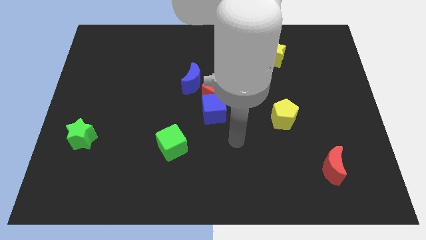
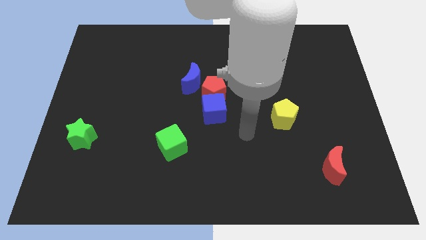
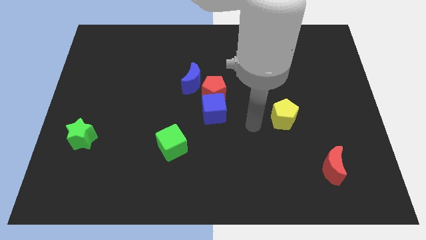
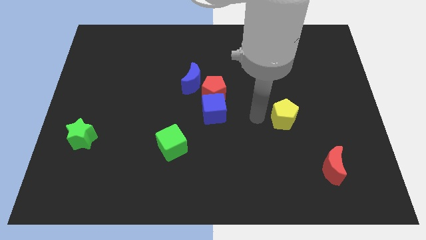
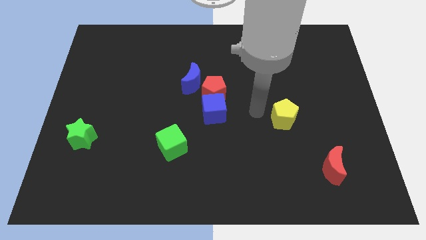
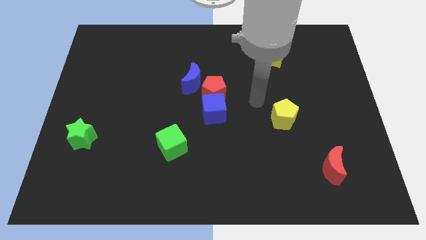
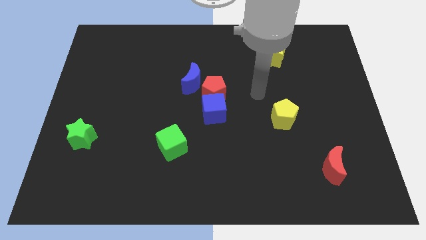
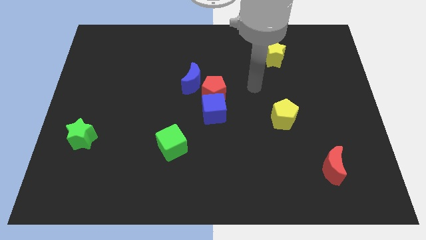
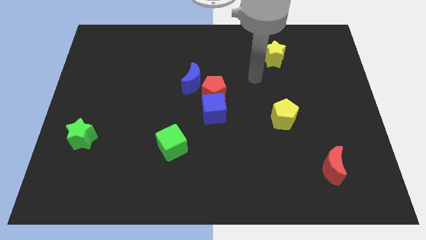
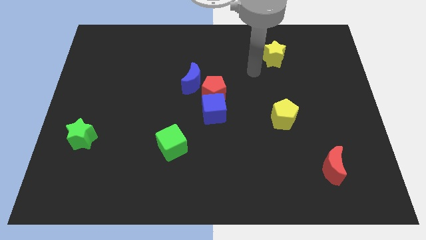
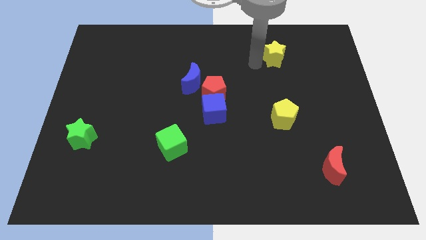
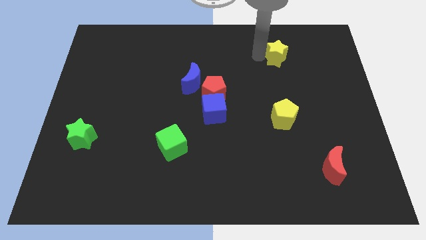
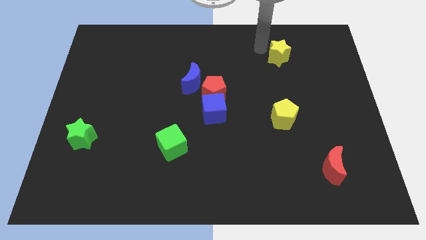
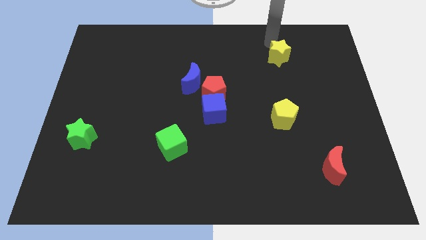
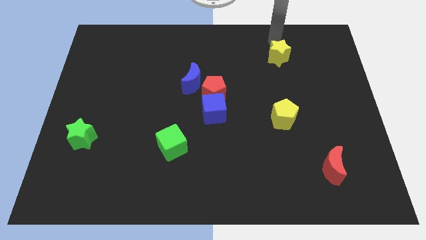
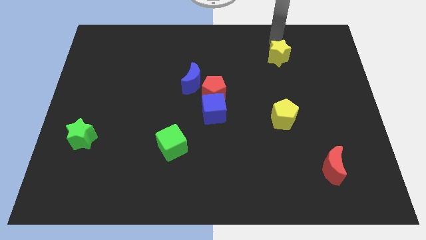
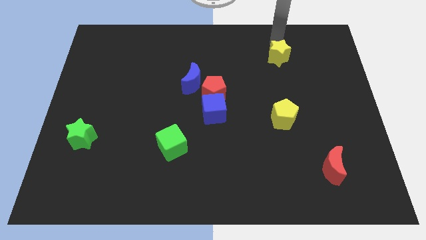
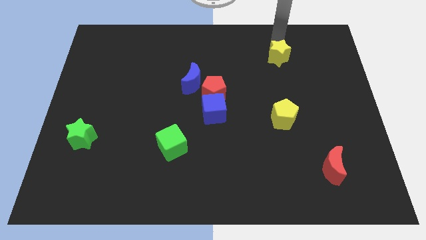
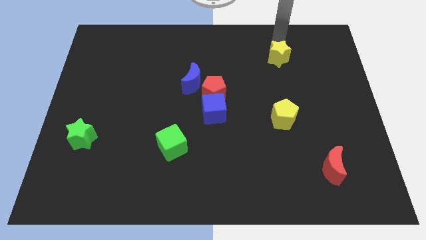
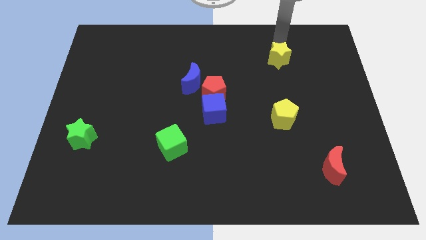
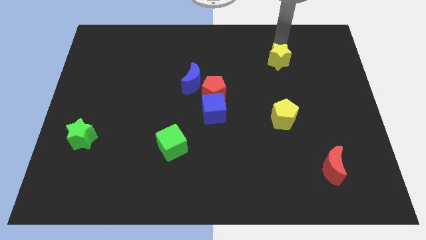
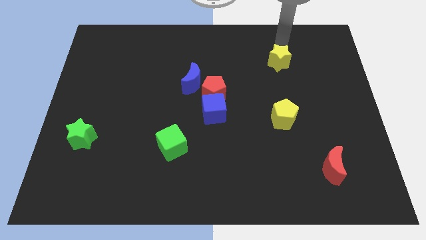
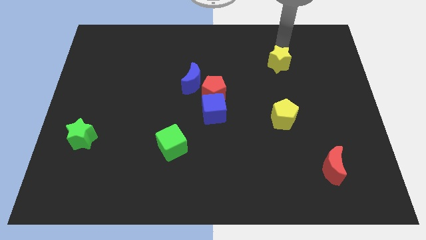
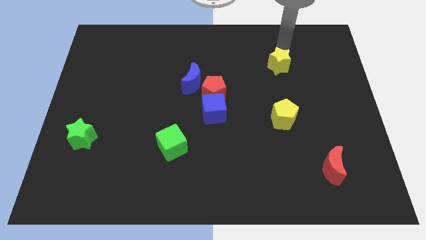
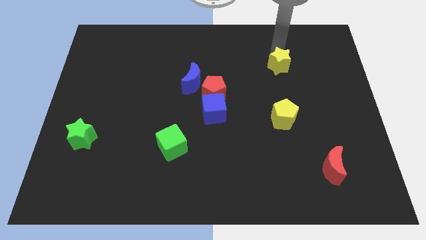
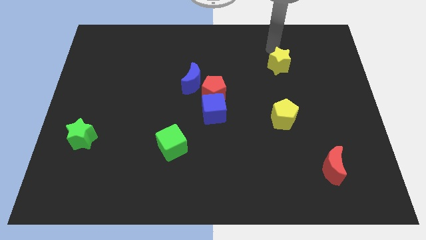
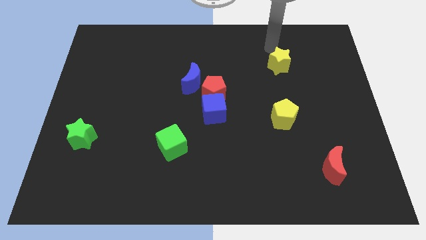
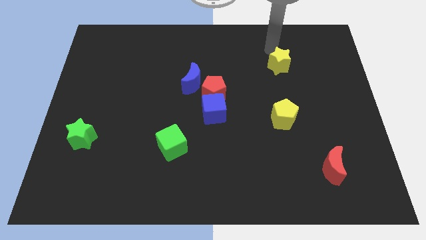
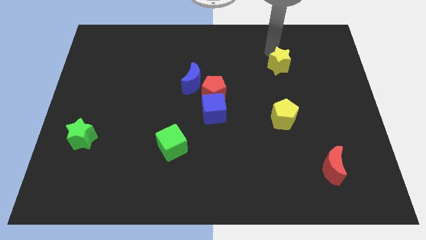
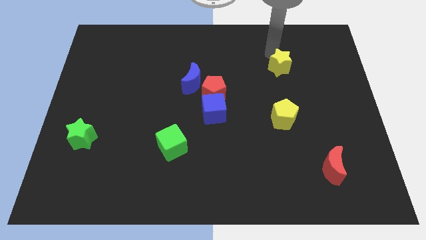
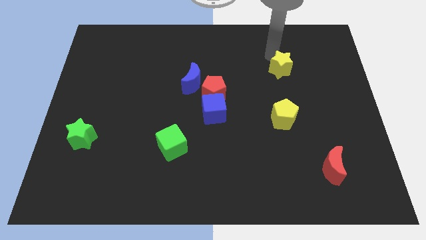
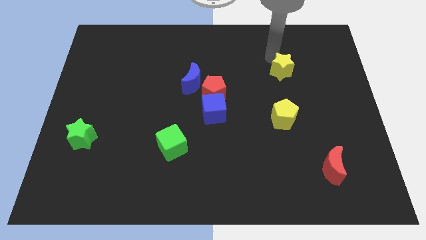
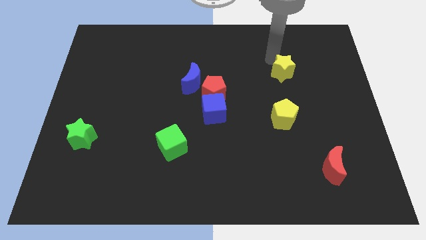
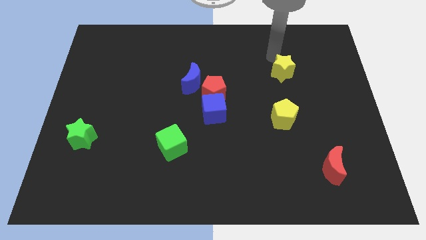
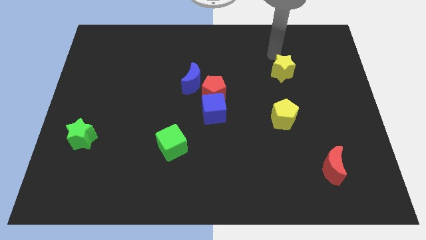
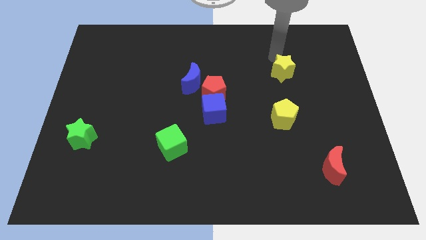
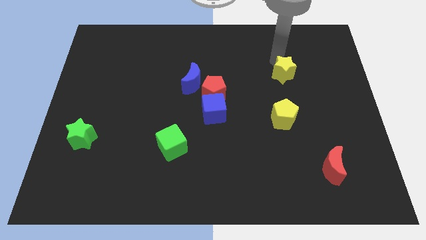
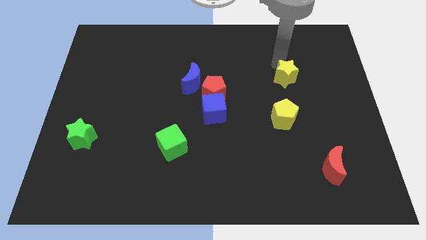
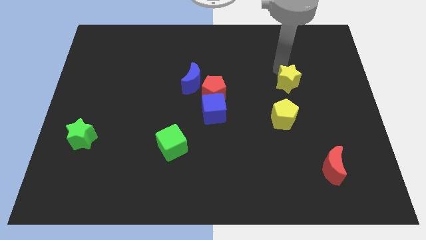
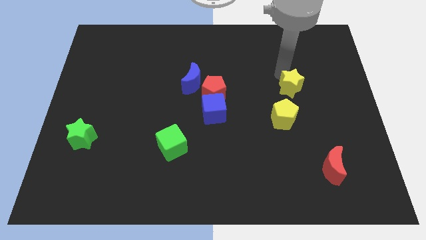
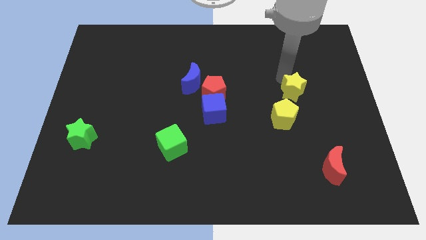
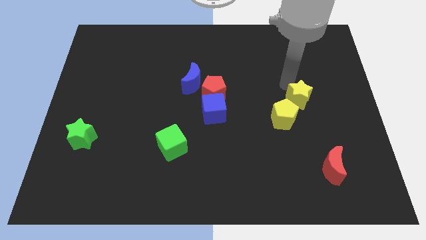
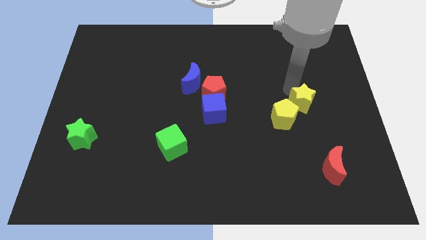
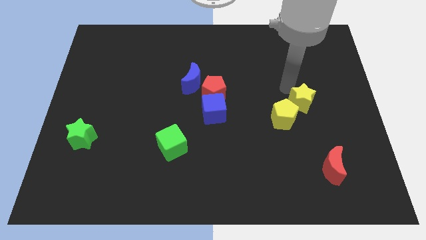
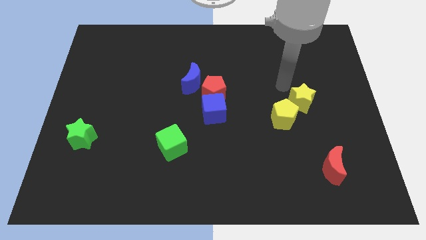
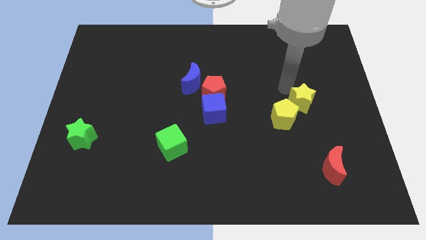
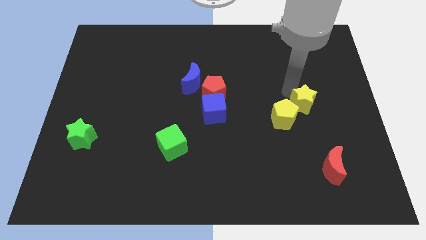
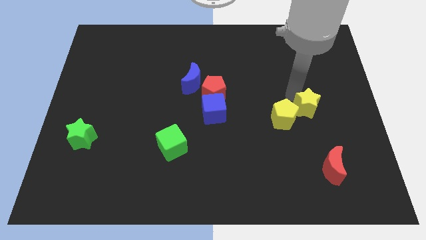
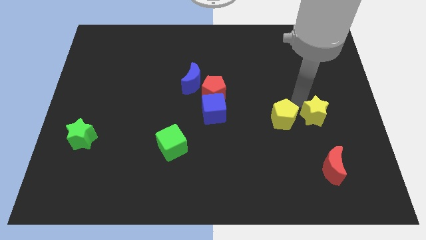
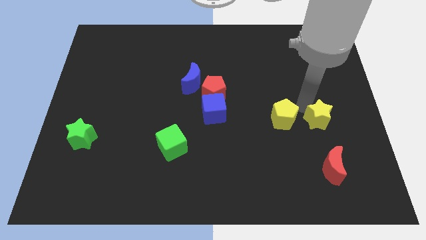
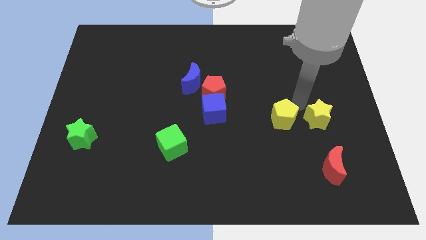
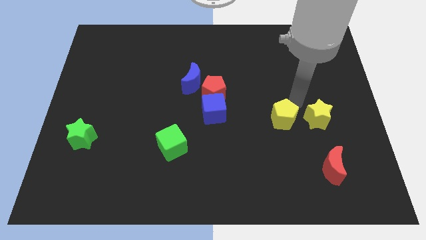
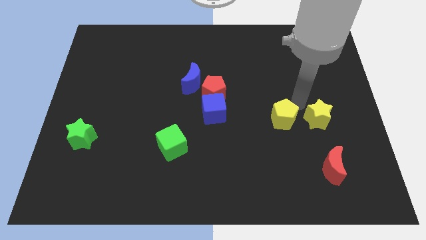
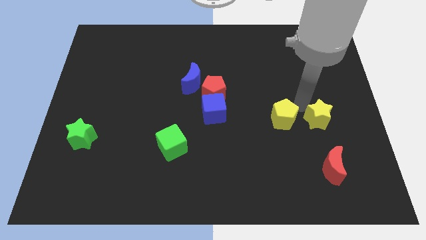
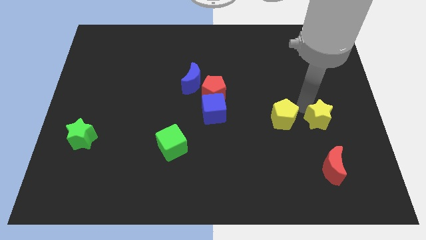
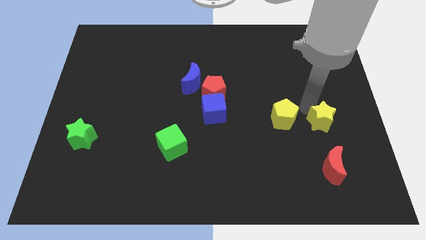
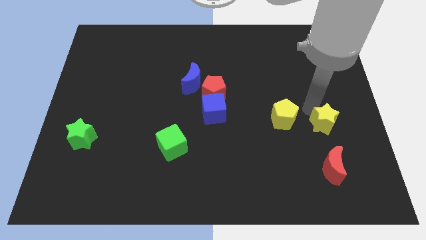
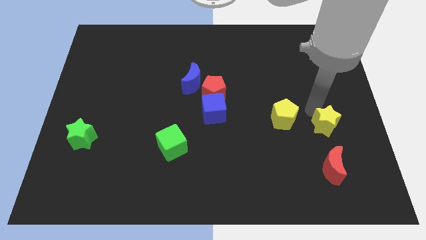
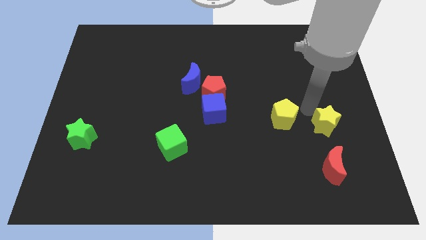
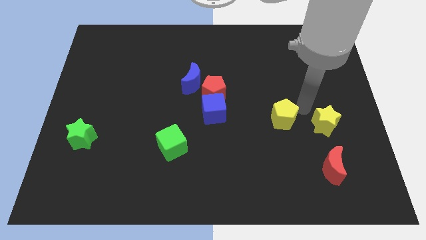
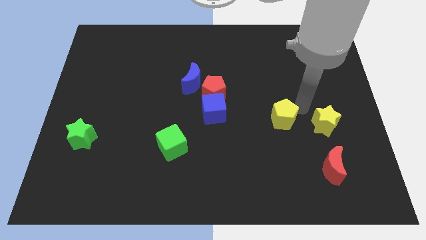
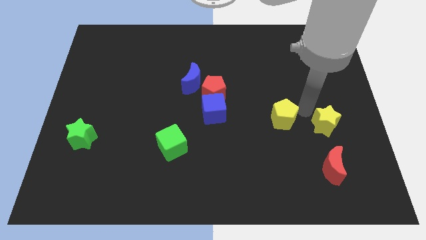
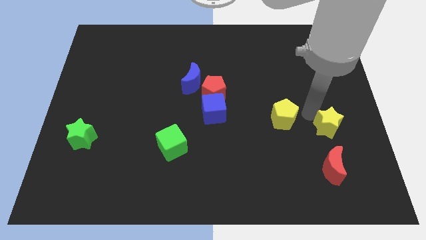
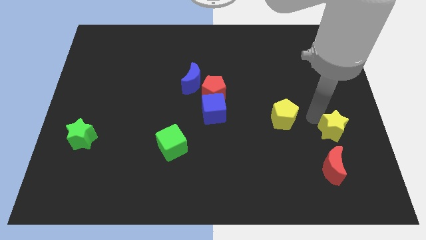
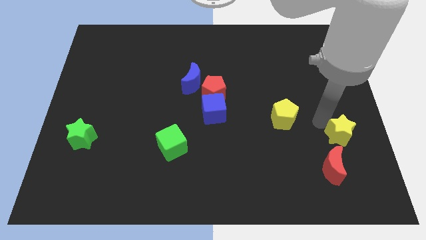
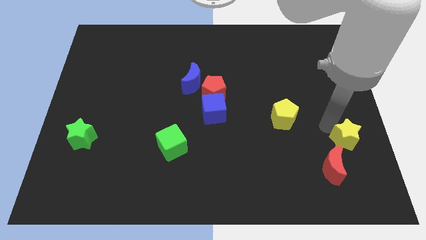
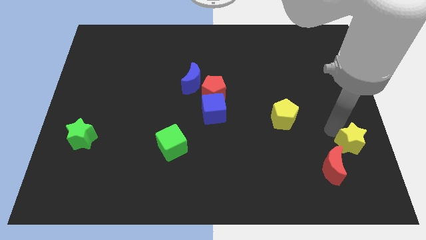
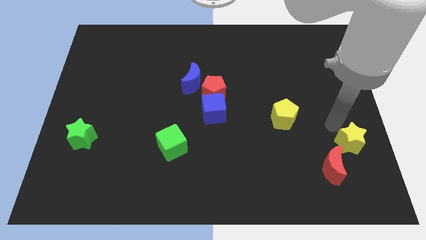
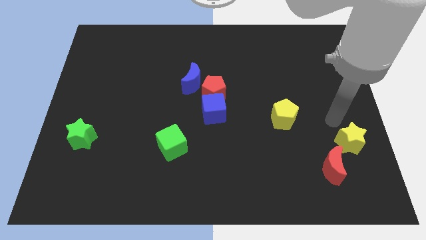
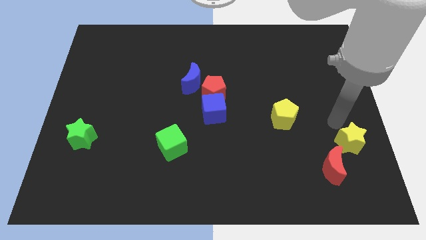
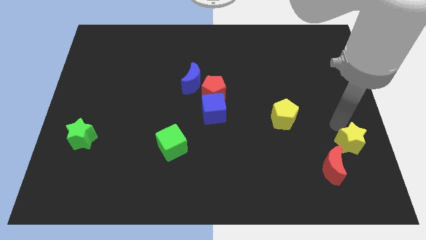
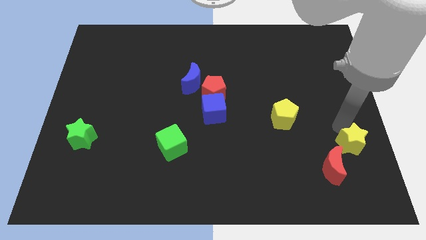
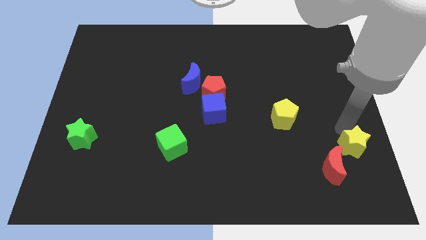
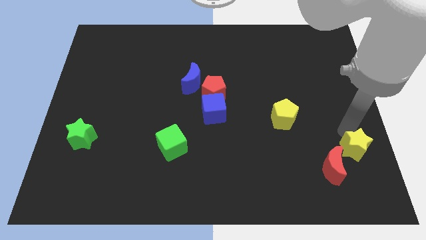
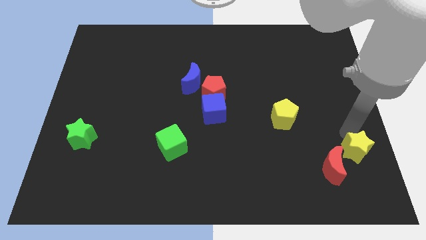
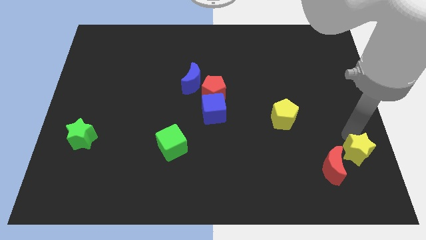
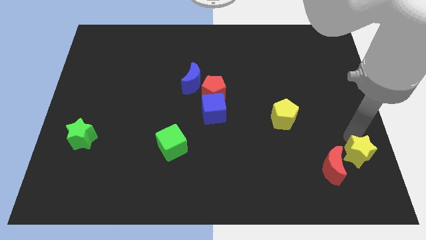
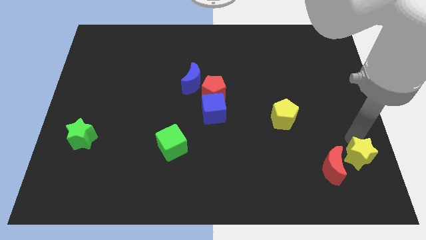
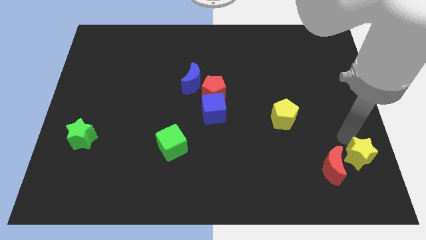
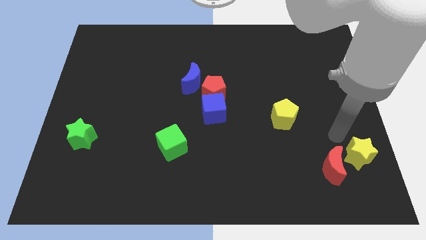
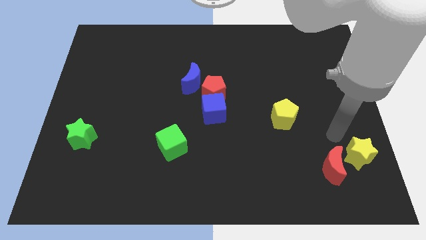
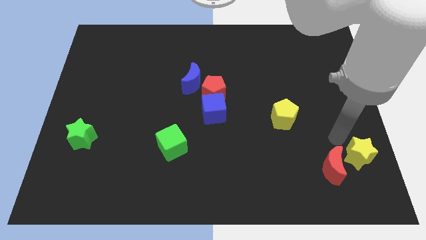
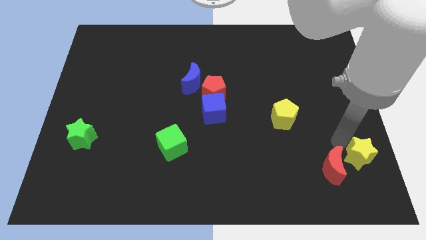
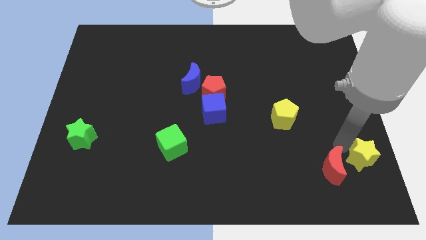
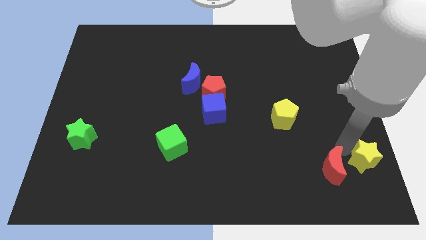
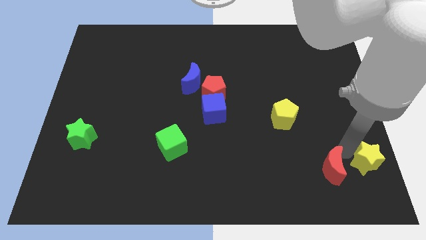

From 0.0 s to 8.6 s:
push the yellow star to the bottom right corner
